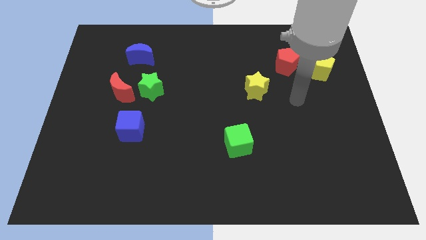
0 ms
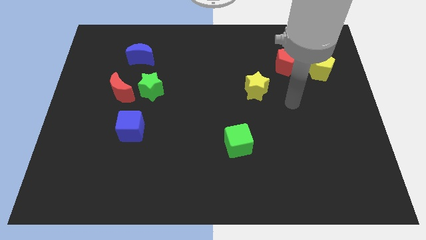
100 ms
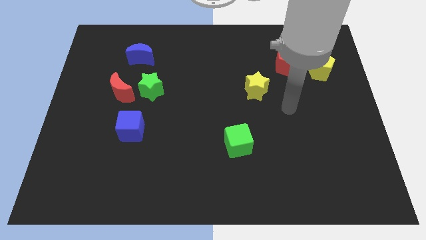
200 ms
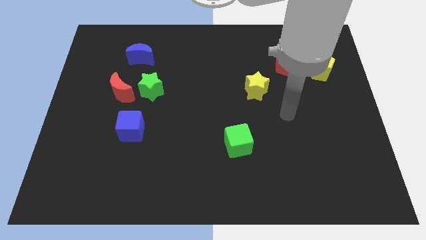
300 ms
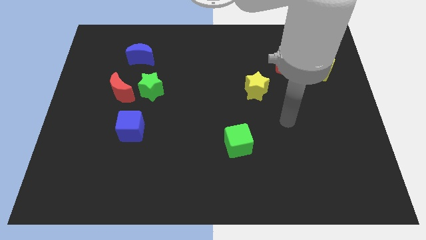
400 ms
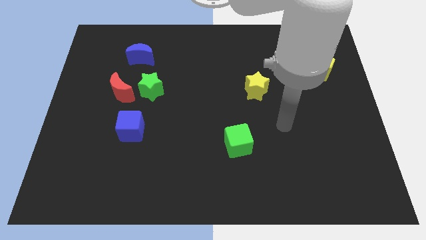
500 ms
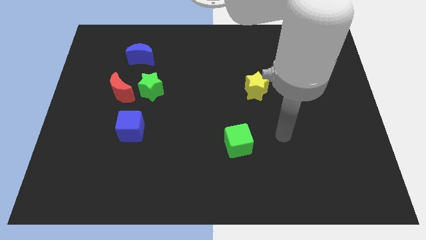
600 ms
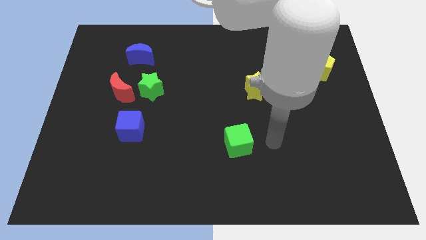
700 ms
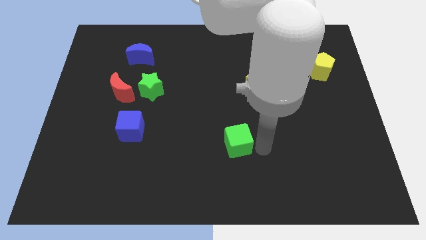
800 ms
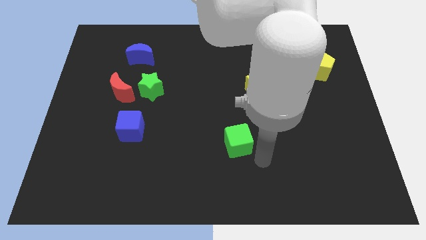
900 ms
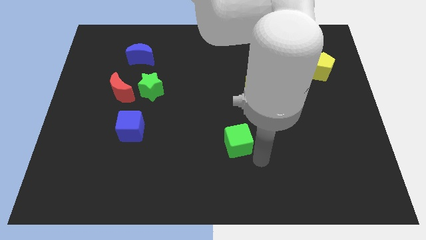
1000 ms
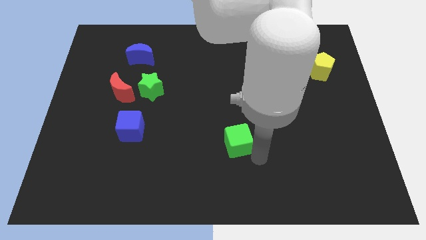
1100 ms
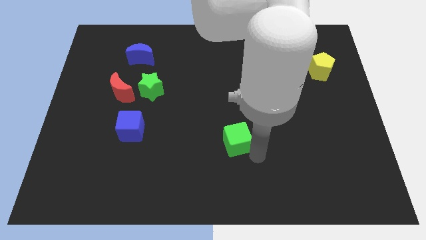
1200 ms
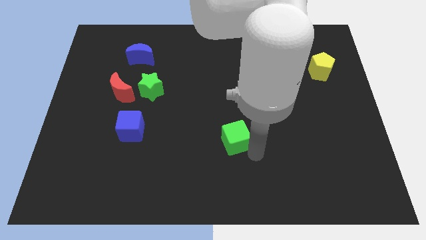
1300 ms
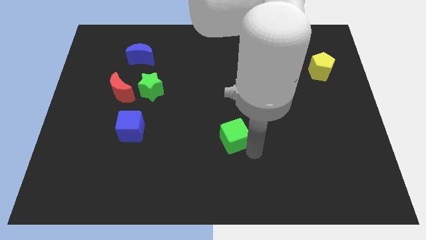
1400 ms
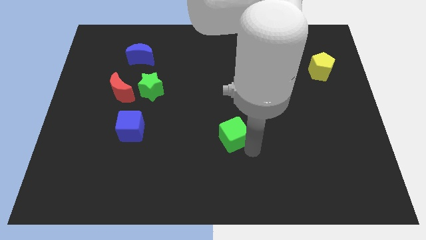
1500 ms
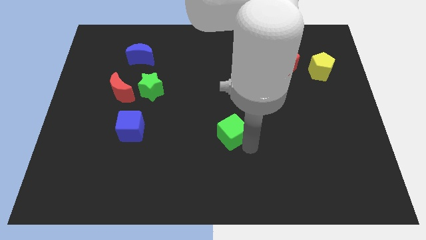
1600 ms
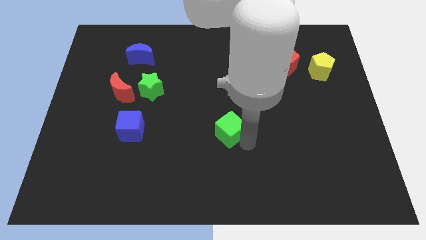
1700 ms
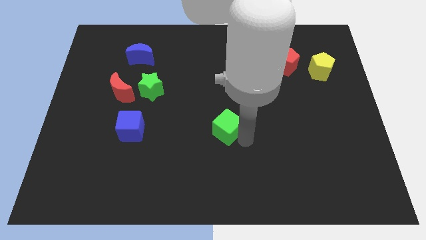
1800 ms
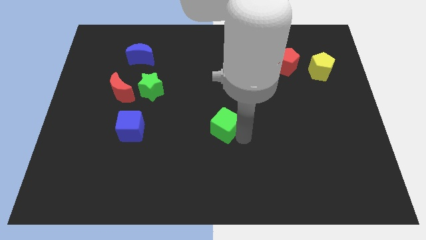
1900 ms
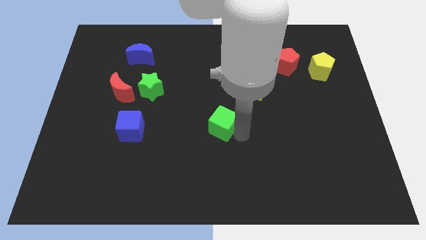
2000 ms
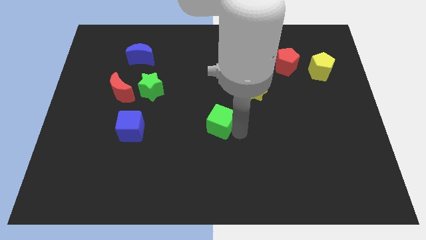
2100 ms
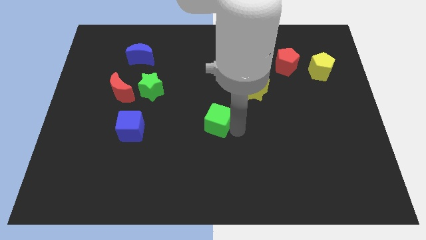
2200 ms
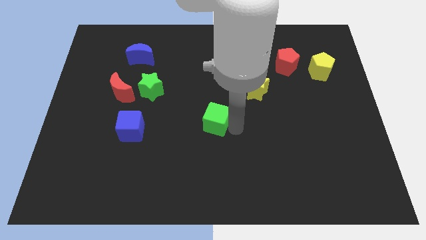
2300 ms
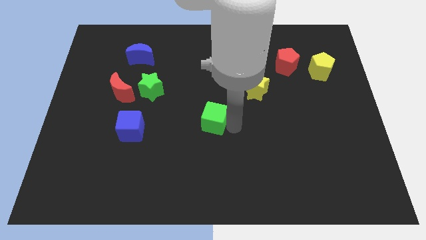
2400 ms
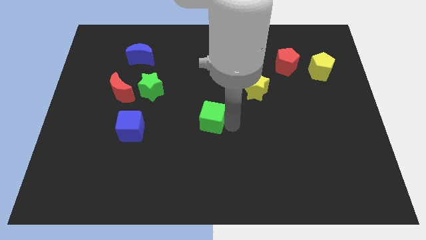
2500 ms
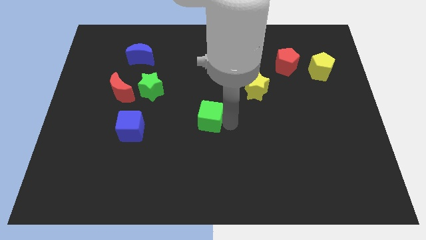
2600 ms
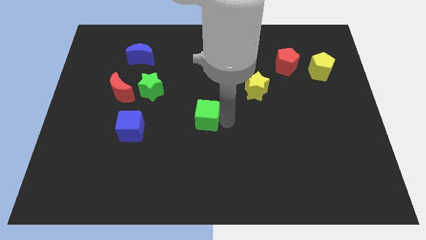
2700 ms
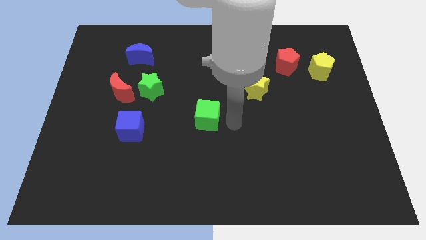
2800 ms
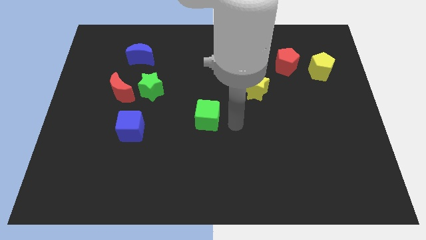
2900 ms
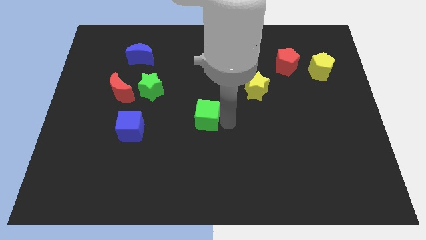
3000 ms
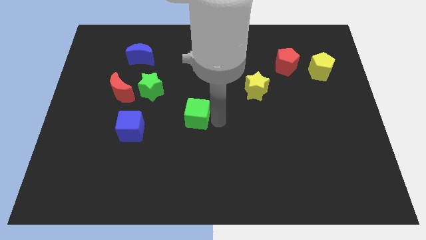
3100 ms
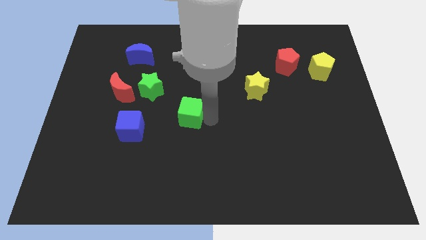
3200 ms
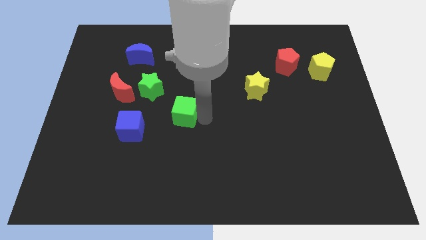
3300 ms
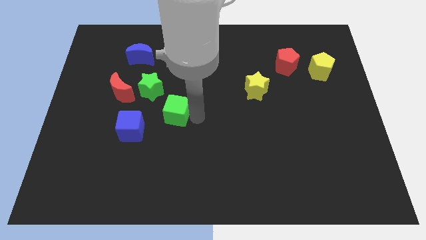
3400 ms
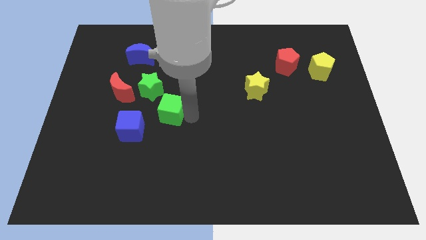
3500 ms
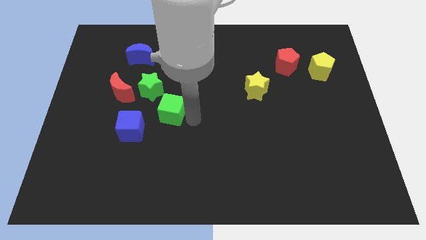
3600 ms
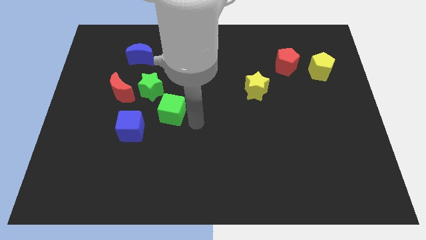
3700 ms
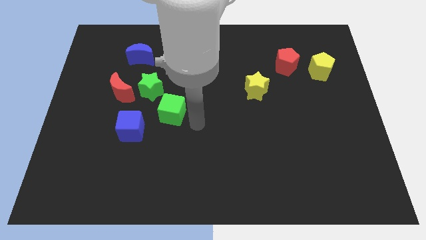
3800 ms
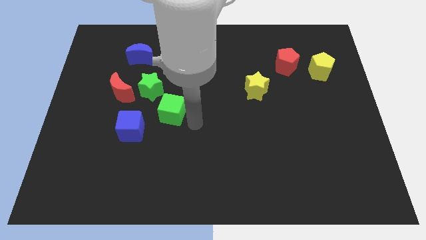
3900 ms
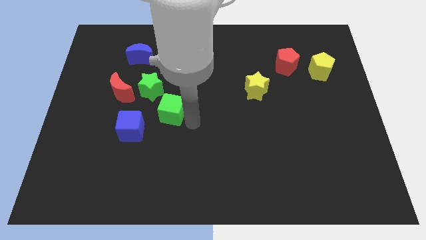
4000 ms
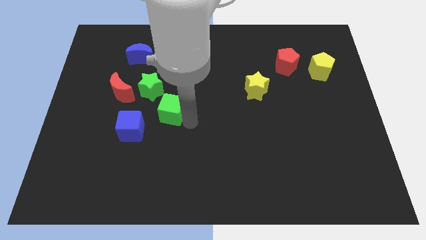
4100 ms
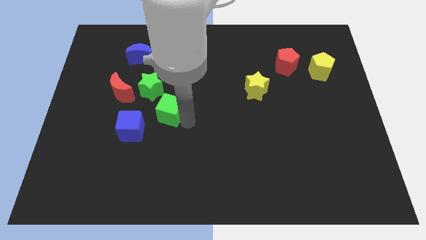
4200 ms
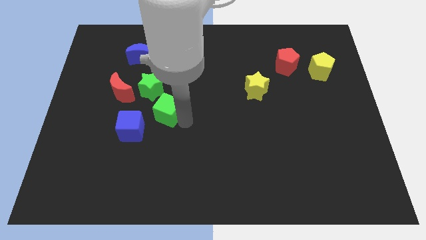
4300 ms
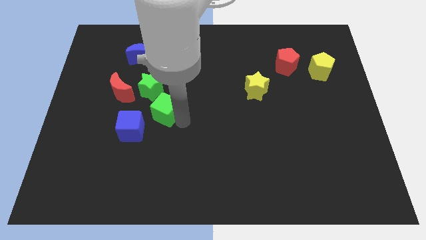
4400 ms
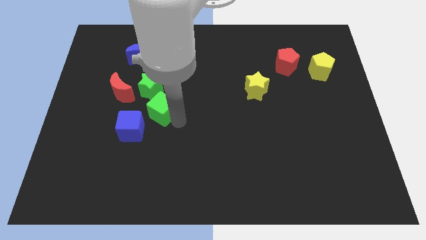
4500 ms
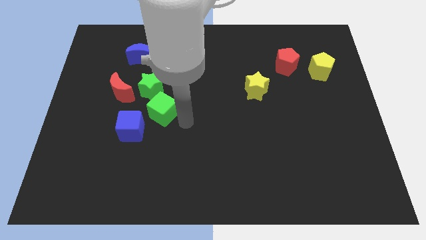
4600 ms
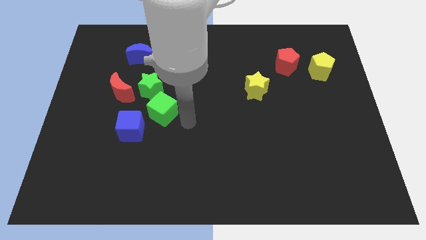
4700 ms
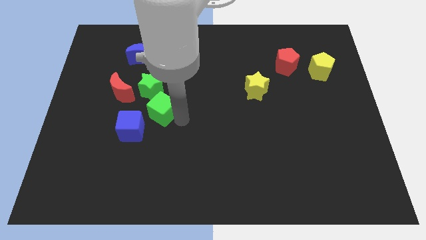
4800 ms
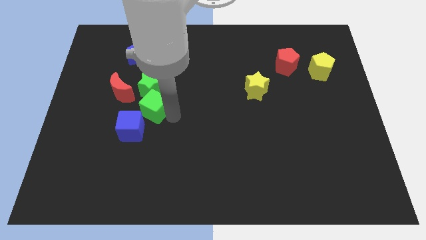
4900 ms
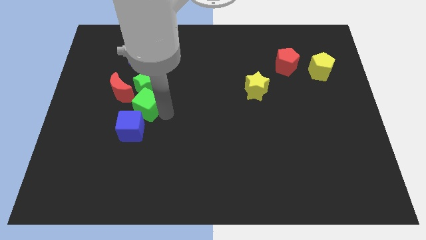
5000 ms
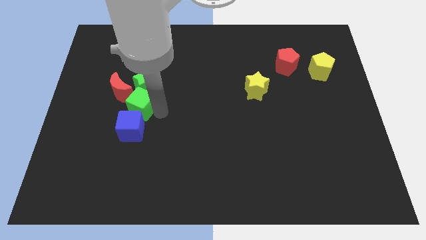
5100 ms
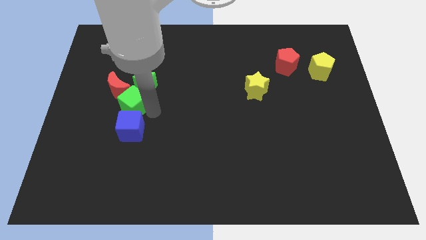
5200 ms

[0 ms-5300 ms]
move the green cube to the bottom of the blue moon

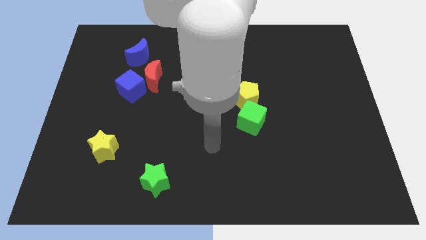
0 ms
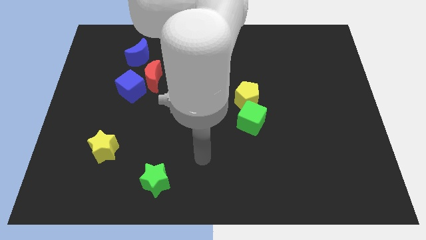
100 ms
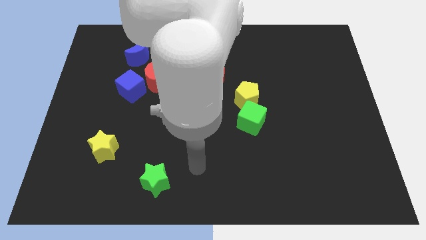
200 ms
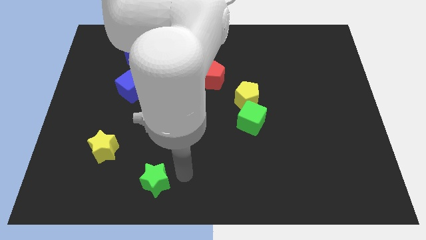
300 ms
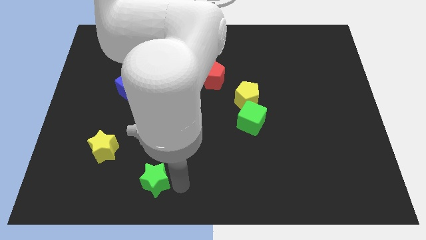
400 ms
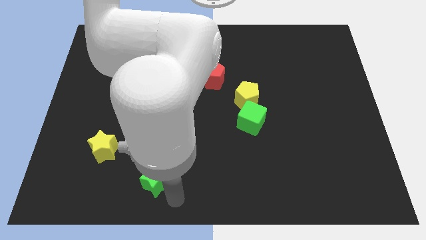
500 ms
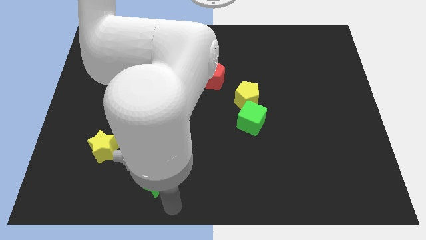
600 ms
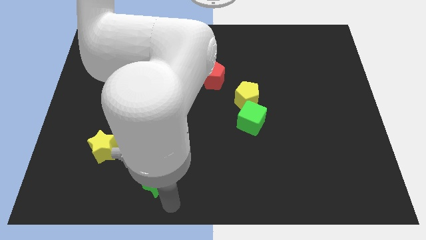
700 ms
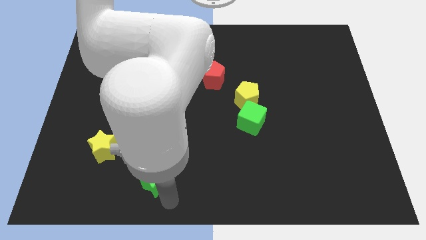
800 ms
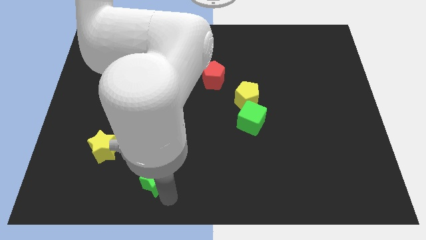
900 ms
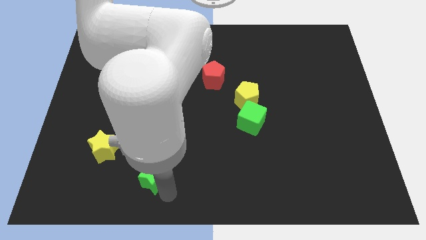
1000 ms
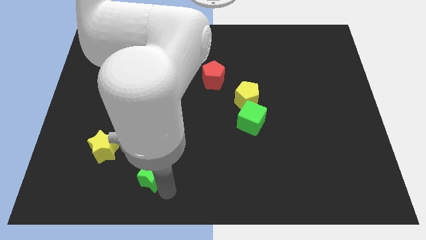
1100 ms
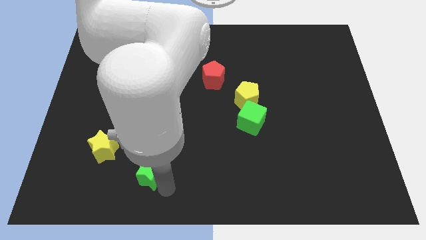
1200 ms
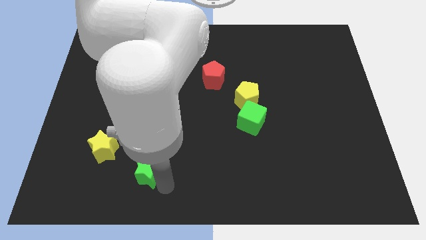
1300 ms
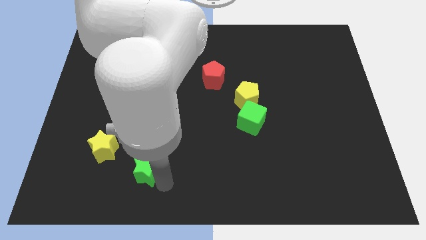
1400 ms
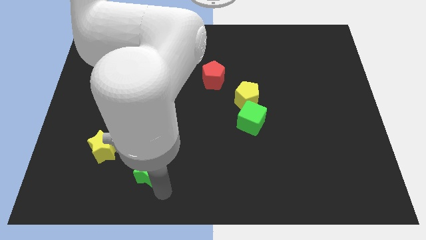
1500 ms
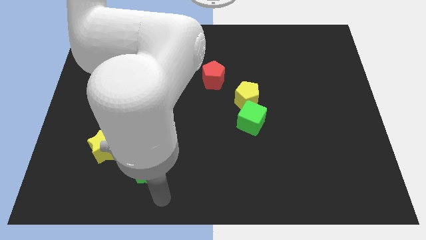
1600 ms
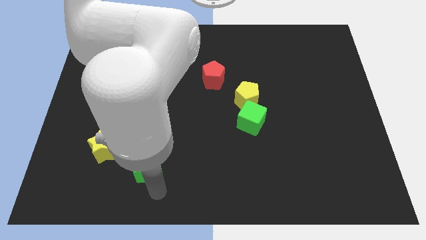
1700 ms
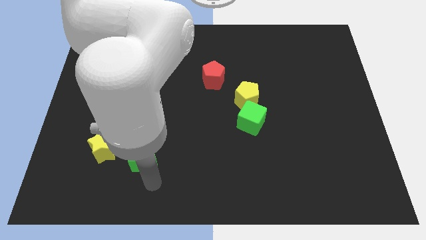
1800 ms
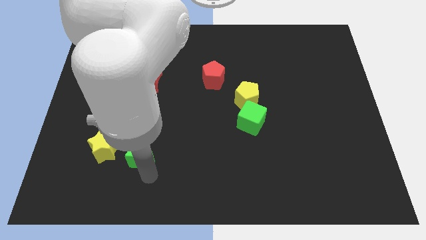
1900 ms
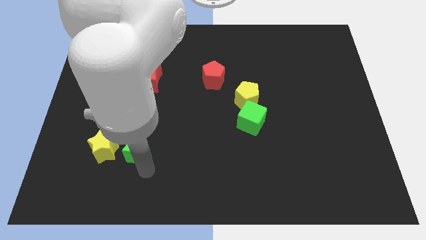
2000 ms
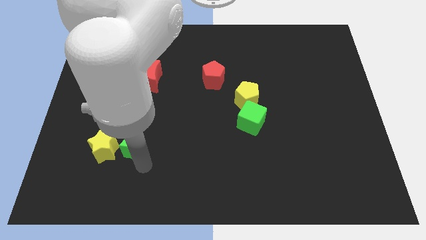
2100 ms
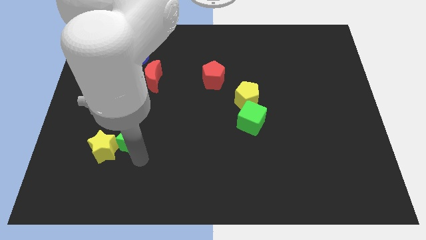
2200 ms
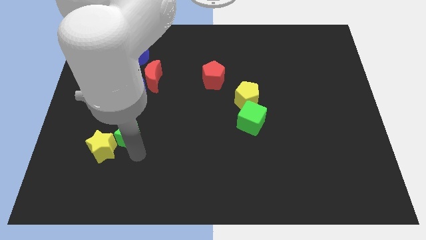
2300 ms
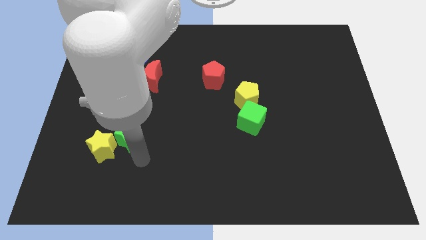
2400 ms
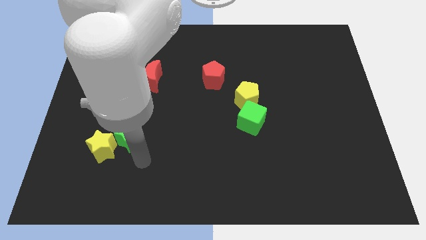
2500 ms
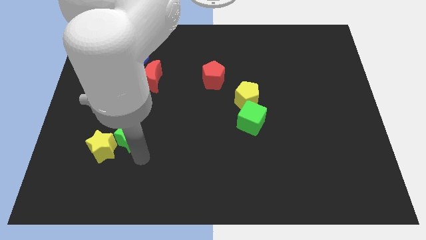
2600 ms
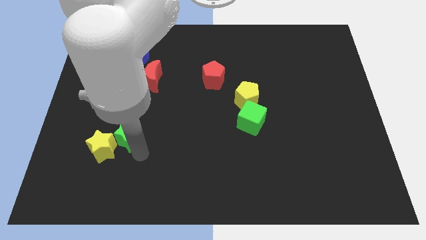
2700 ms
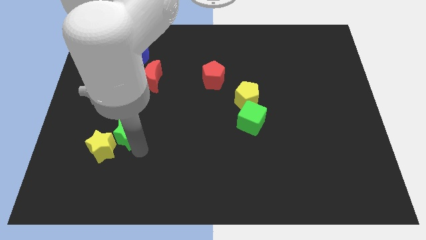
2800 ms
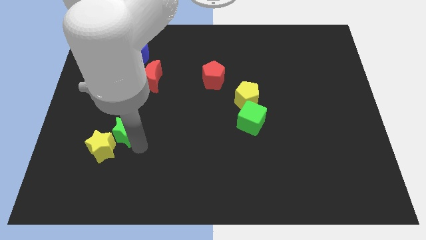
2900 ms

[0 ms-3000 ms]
slide the green star above the yellow star
